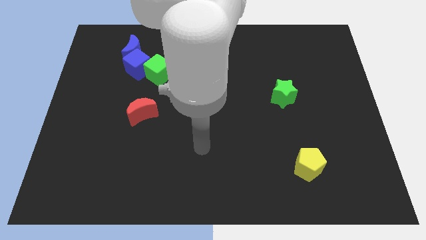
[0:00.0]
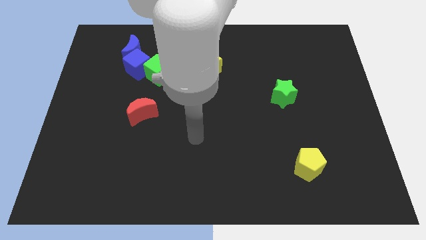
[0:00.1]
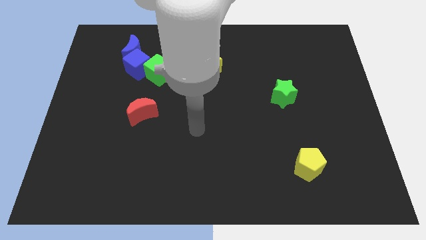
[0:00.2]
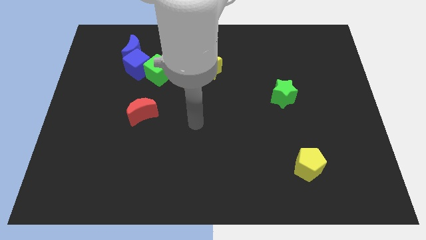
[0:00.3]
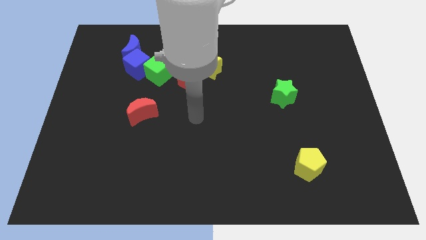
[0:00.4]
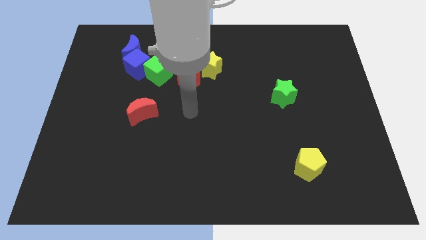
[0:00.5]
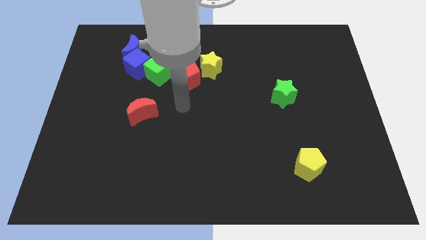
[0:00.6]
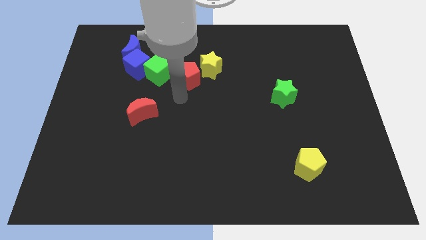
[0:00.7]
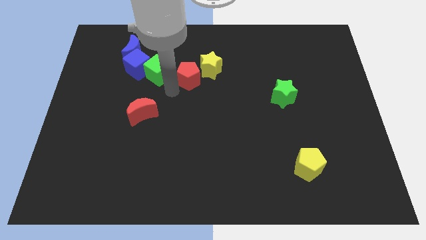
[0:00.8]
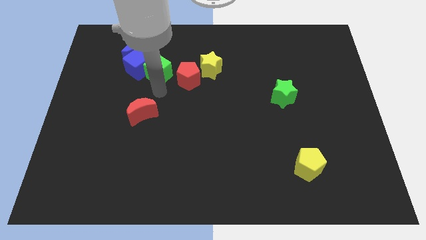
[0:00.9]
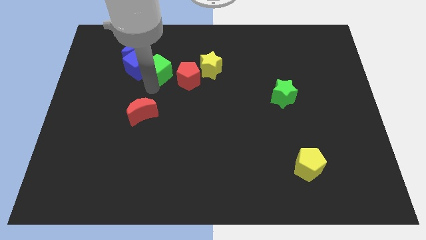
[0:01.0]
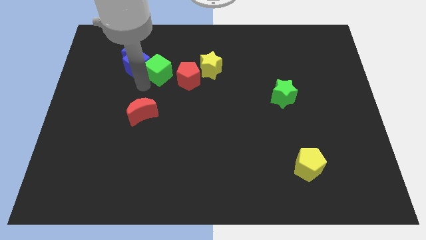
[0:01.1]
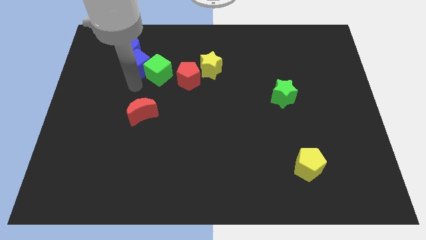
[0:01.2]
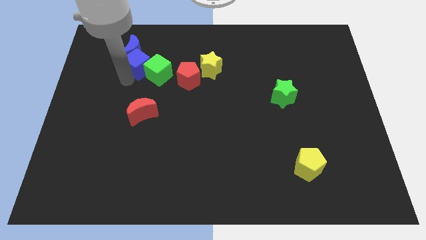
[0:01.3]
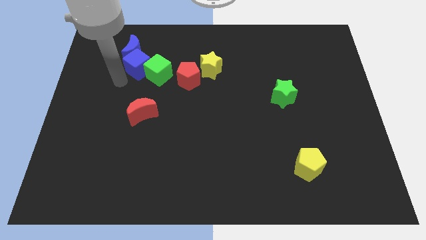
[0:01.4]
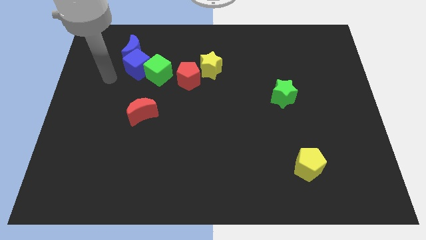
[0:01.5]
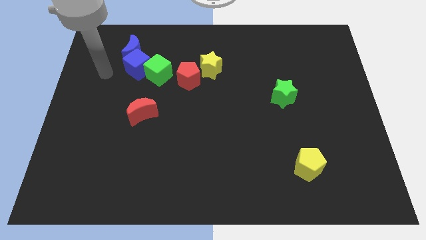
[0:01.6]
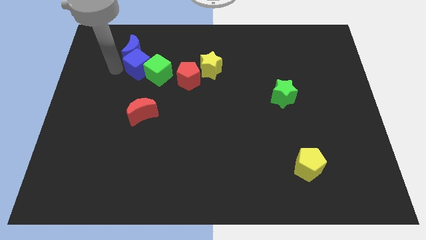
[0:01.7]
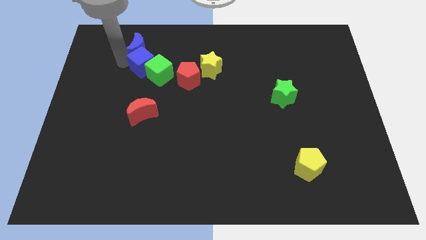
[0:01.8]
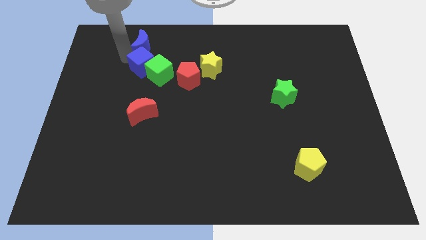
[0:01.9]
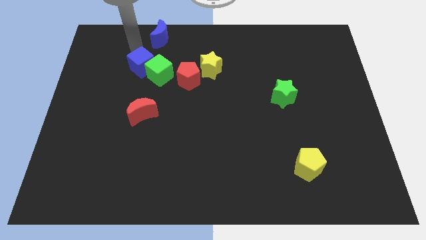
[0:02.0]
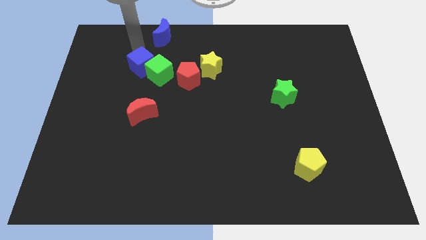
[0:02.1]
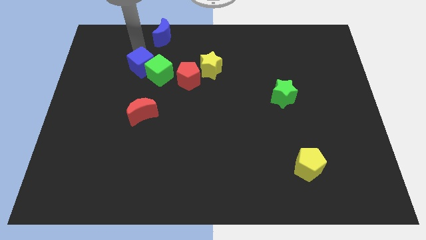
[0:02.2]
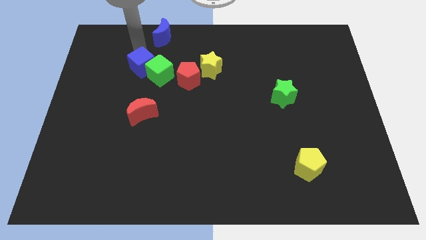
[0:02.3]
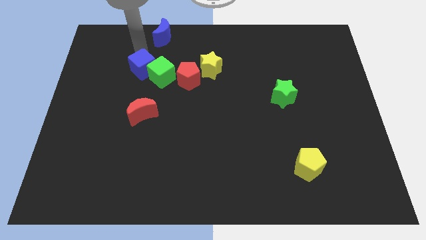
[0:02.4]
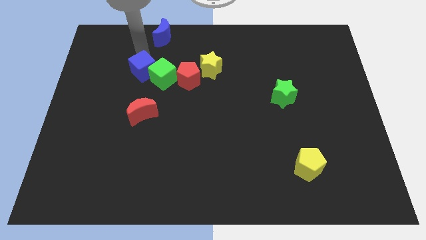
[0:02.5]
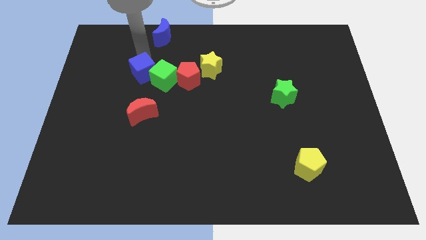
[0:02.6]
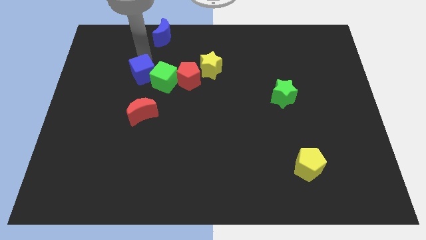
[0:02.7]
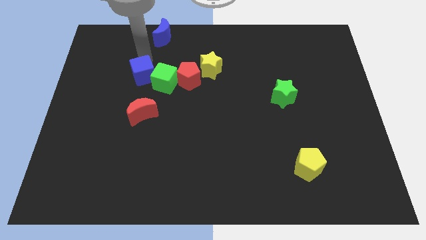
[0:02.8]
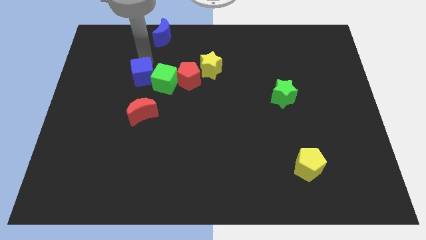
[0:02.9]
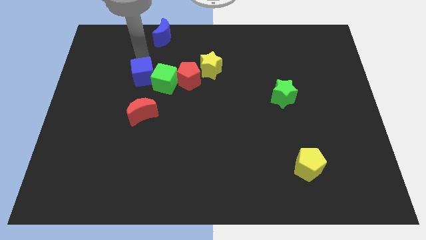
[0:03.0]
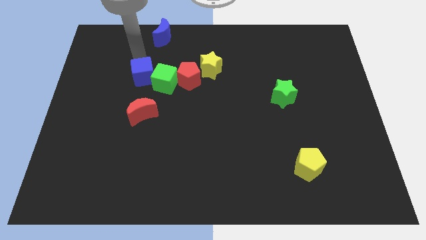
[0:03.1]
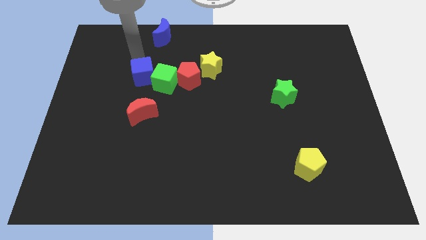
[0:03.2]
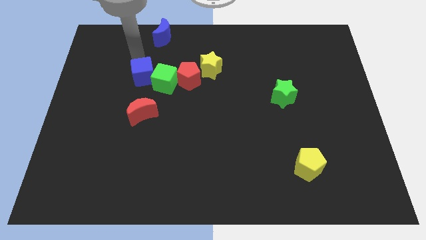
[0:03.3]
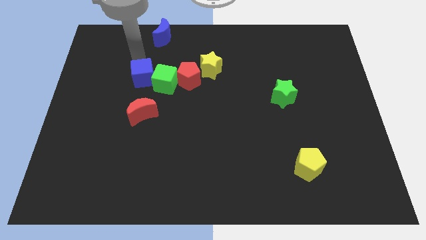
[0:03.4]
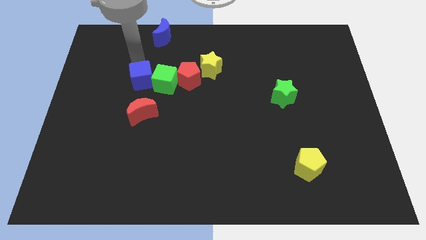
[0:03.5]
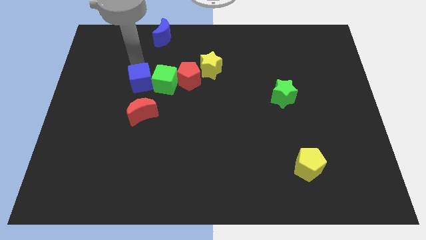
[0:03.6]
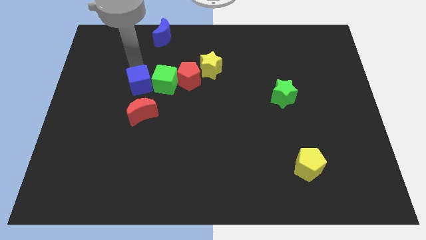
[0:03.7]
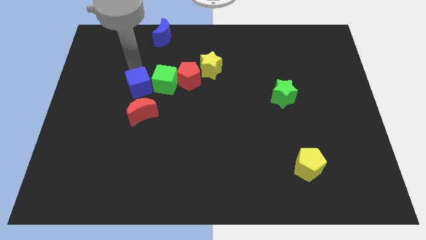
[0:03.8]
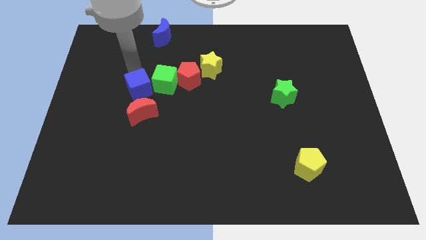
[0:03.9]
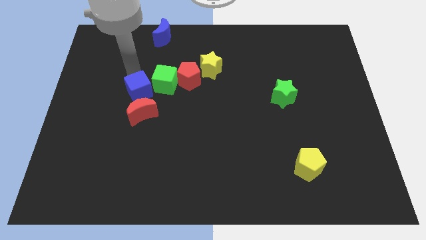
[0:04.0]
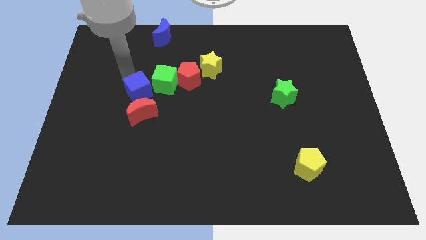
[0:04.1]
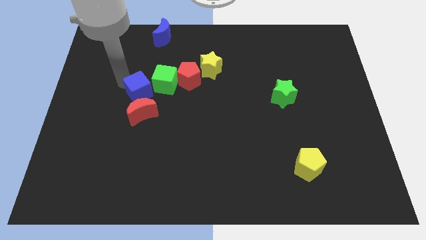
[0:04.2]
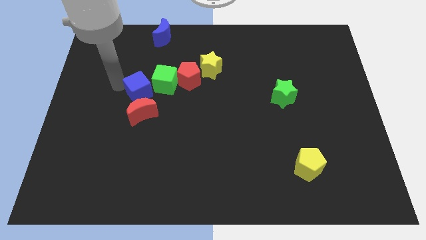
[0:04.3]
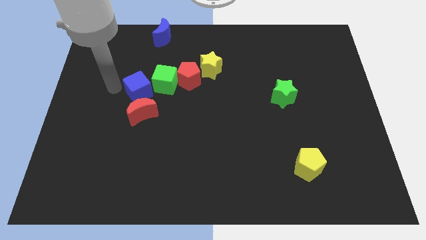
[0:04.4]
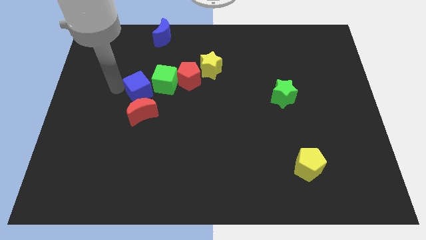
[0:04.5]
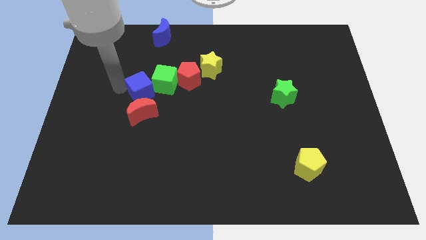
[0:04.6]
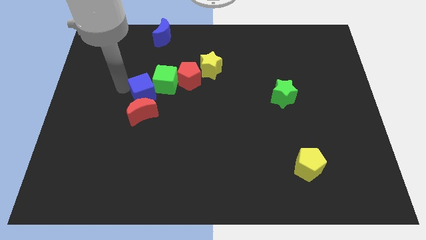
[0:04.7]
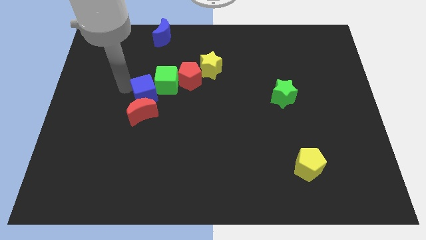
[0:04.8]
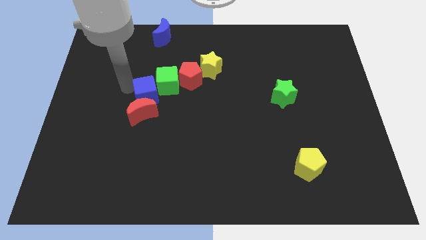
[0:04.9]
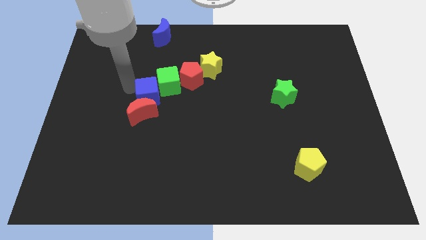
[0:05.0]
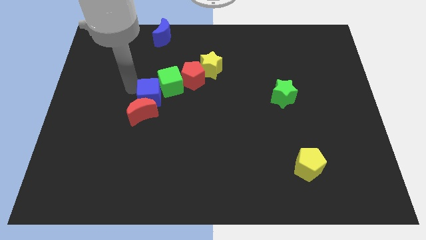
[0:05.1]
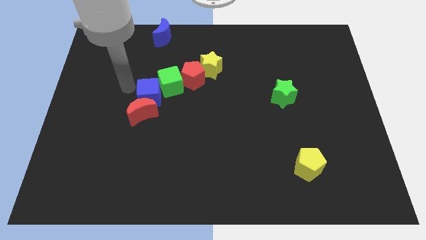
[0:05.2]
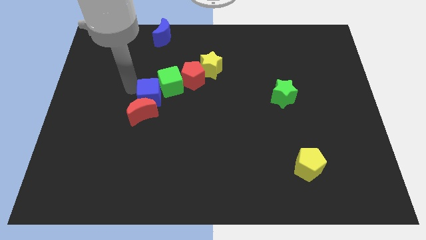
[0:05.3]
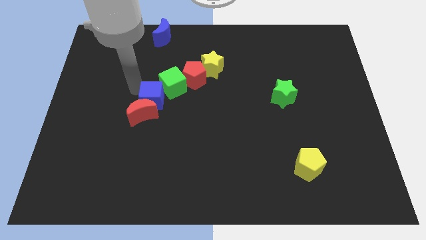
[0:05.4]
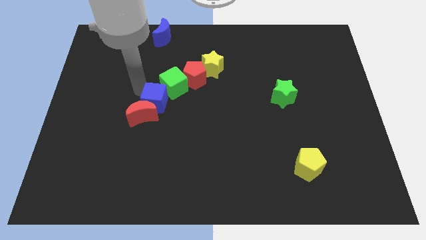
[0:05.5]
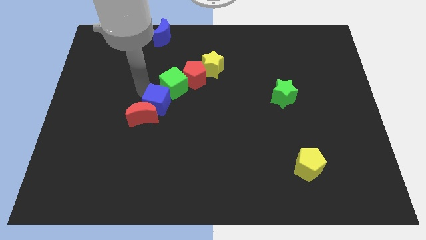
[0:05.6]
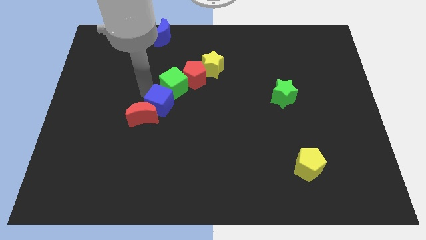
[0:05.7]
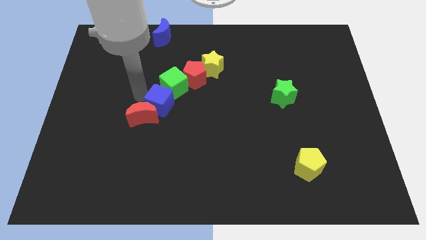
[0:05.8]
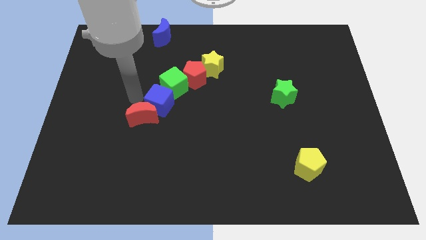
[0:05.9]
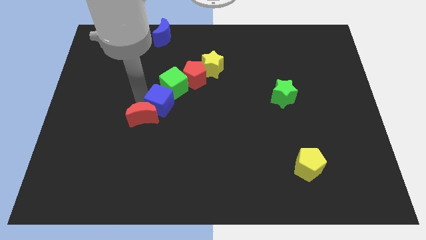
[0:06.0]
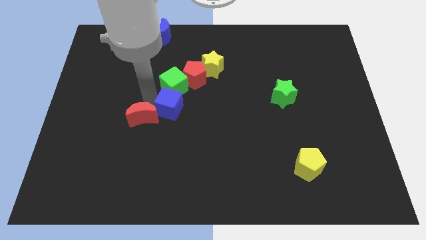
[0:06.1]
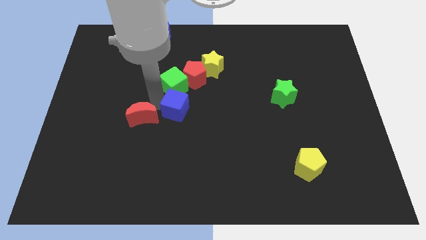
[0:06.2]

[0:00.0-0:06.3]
move the blue cube below the red pentagon

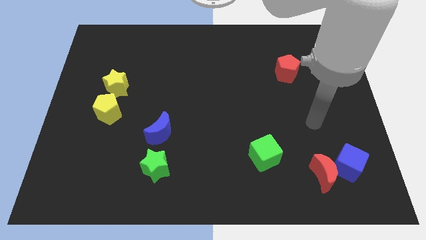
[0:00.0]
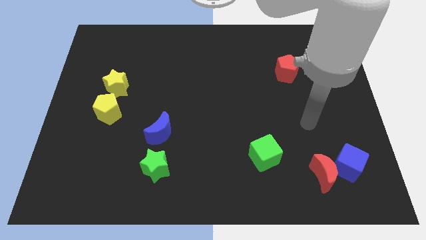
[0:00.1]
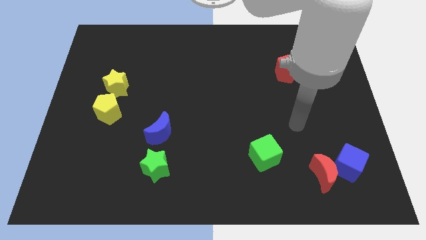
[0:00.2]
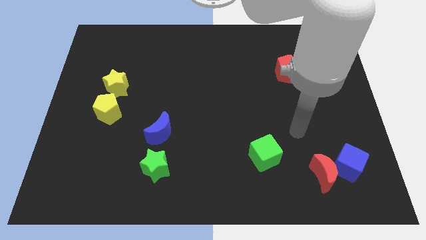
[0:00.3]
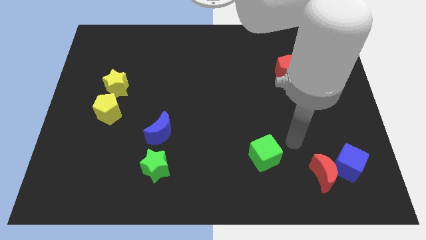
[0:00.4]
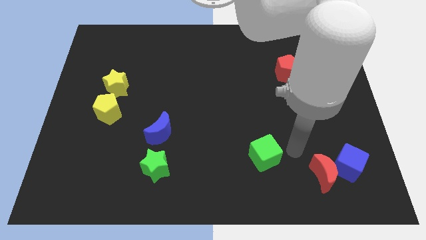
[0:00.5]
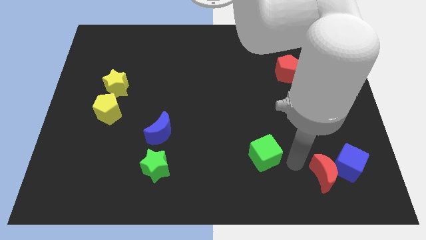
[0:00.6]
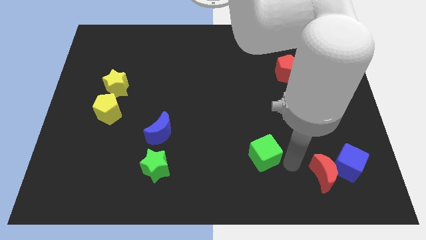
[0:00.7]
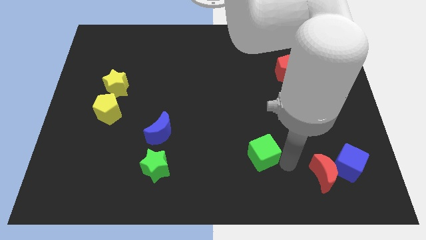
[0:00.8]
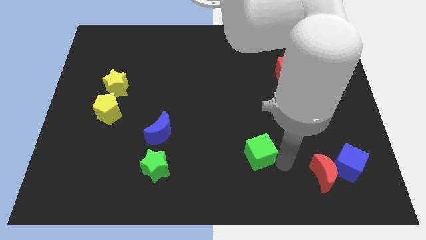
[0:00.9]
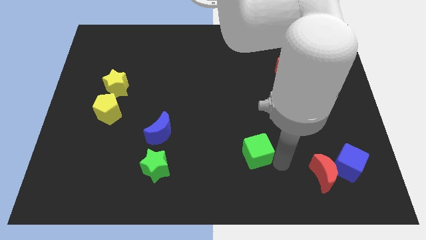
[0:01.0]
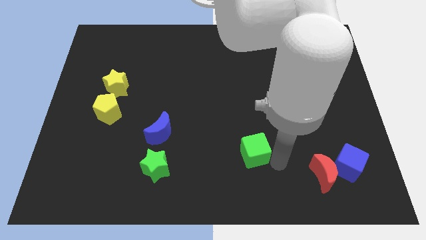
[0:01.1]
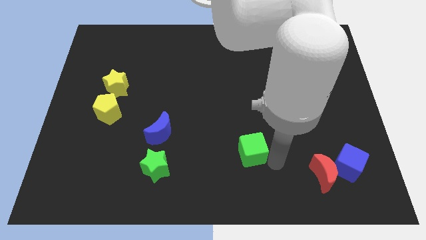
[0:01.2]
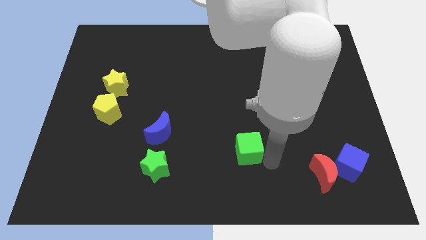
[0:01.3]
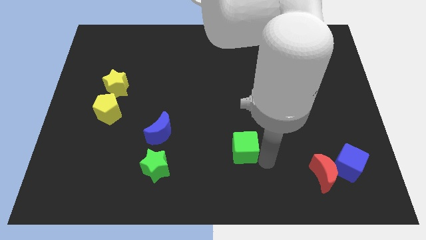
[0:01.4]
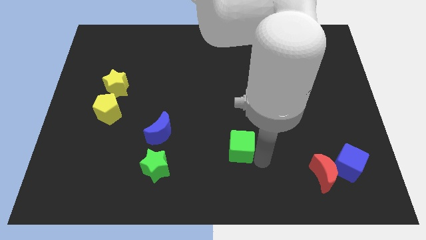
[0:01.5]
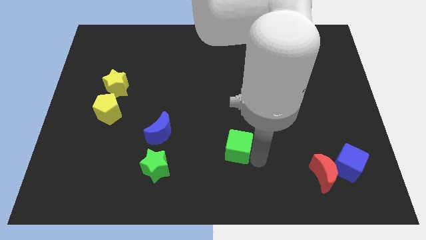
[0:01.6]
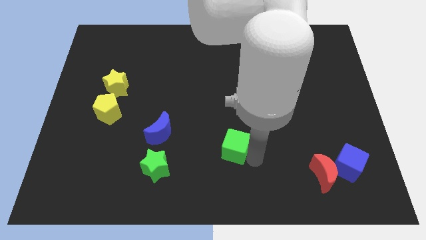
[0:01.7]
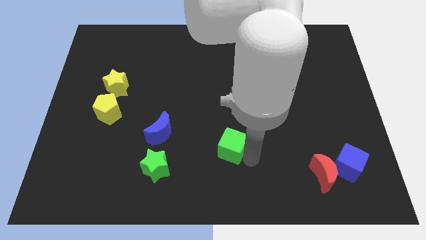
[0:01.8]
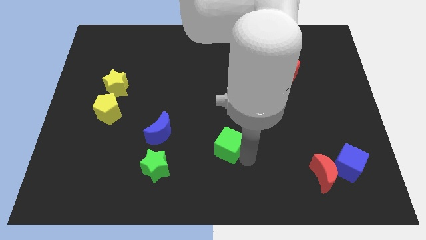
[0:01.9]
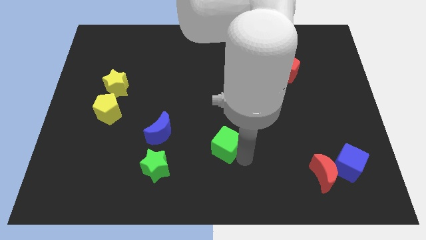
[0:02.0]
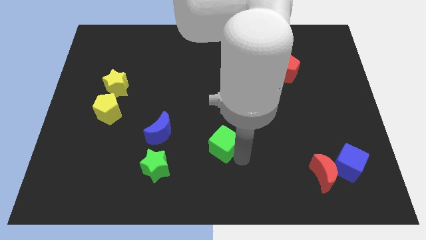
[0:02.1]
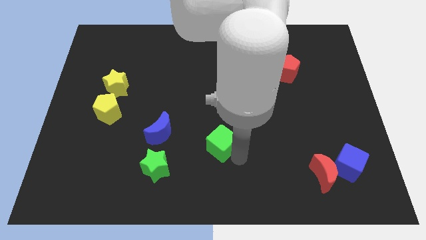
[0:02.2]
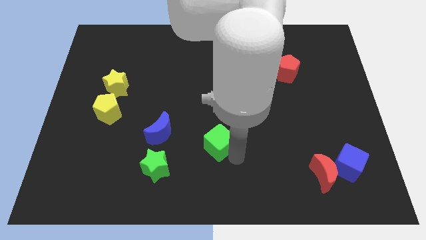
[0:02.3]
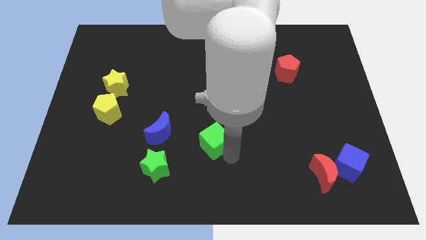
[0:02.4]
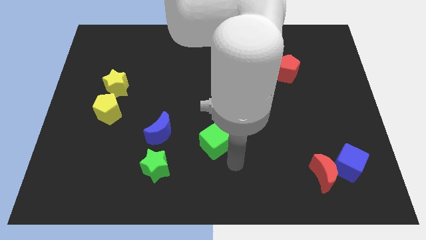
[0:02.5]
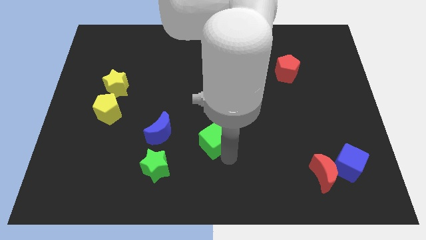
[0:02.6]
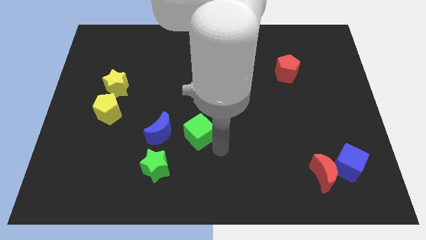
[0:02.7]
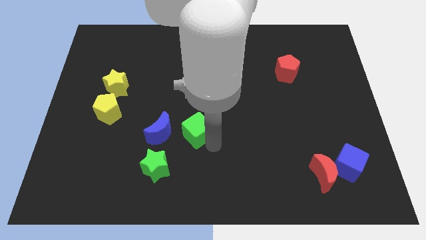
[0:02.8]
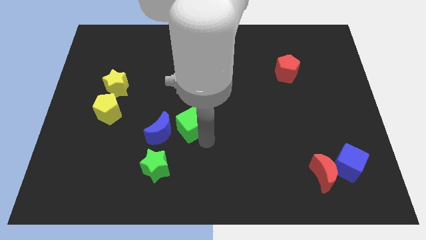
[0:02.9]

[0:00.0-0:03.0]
slide the green cube to the top right of the blue moon
